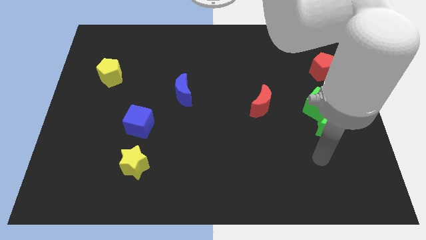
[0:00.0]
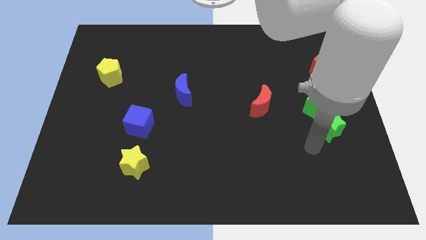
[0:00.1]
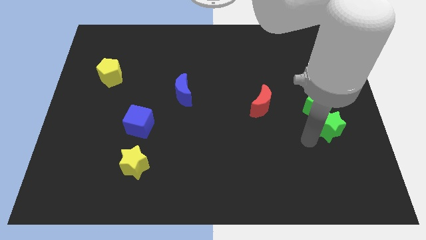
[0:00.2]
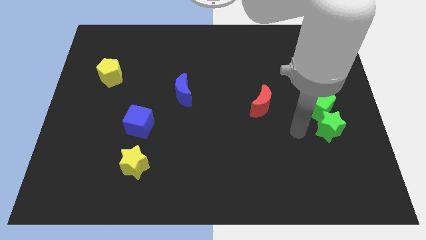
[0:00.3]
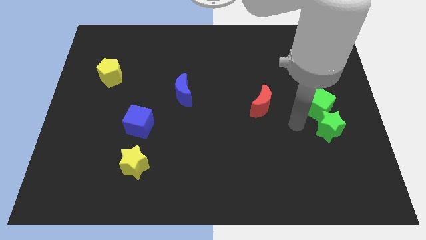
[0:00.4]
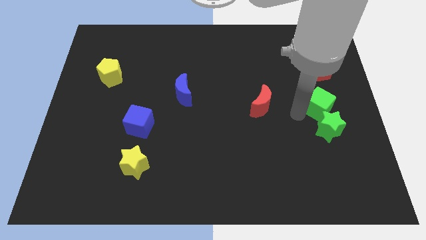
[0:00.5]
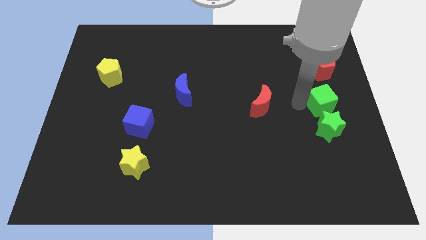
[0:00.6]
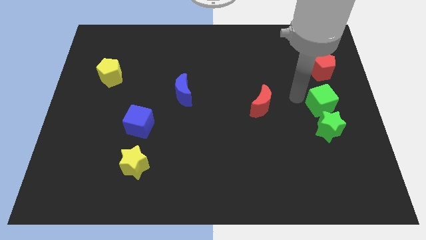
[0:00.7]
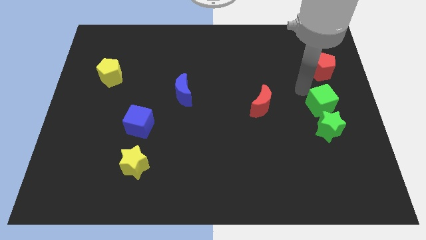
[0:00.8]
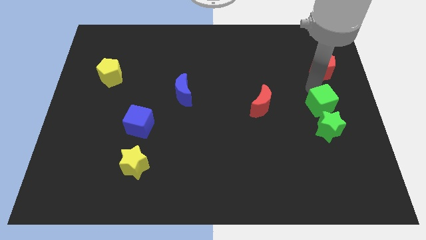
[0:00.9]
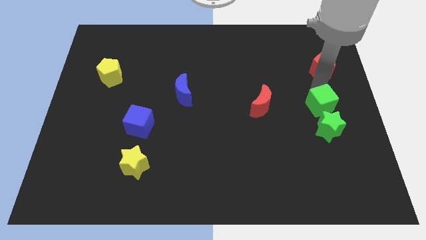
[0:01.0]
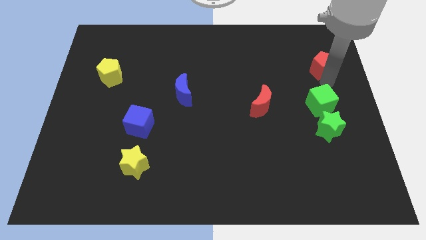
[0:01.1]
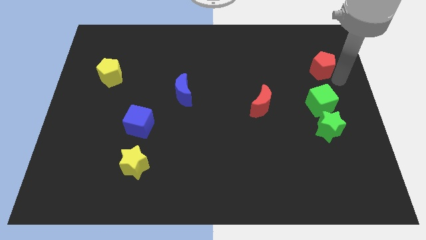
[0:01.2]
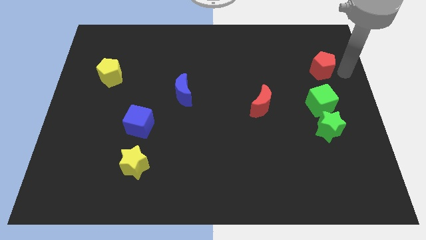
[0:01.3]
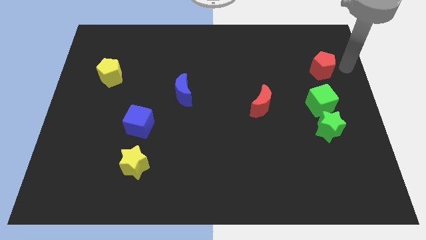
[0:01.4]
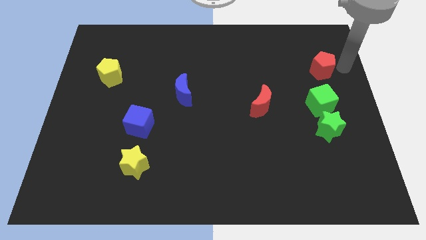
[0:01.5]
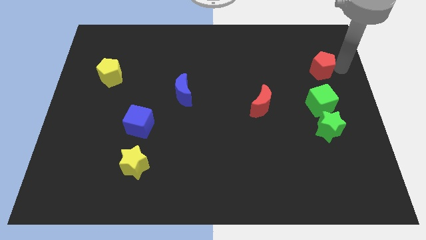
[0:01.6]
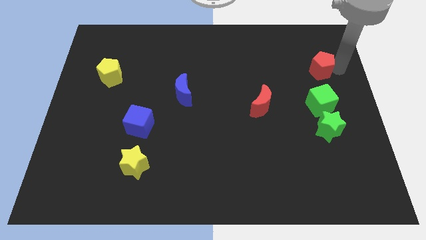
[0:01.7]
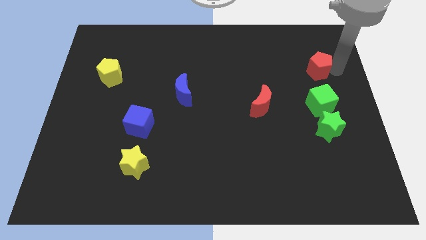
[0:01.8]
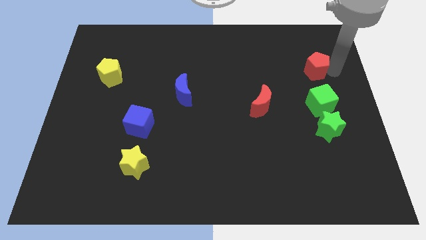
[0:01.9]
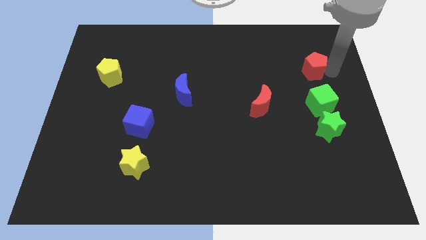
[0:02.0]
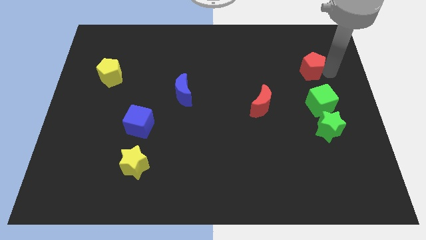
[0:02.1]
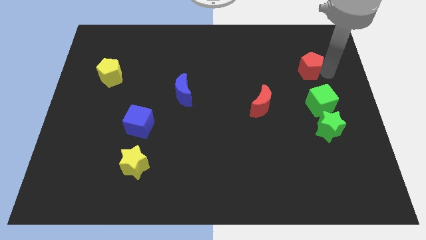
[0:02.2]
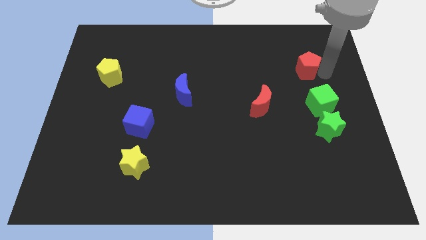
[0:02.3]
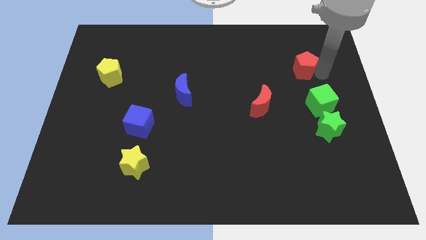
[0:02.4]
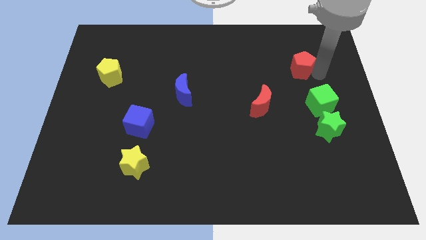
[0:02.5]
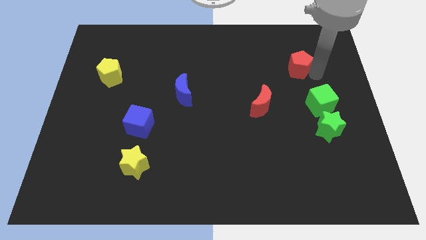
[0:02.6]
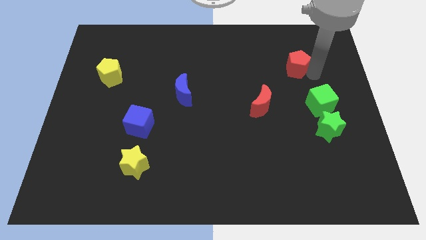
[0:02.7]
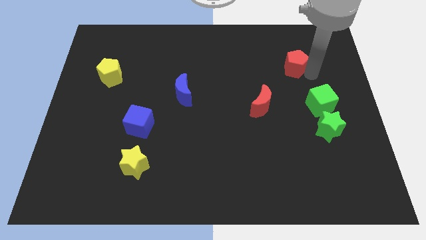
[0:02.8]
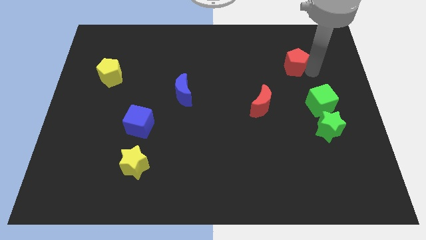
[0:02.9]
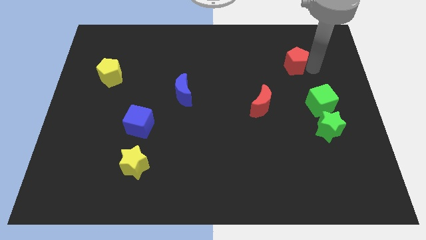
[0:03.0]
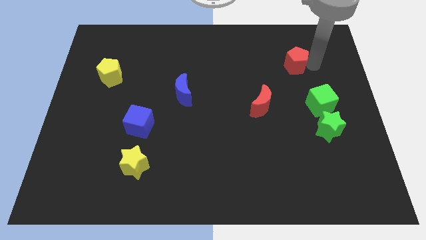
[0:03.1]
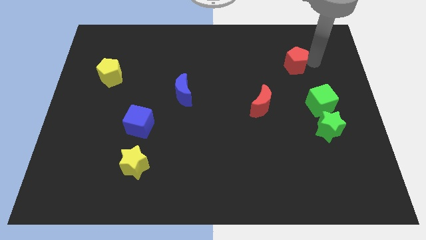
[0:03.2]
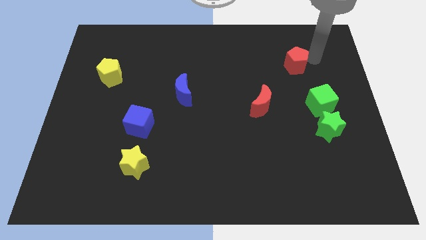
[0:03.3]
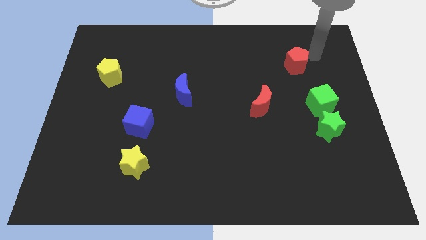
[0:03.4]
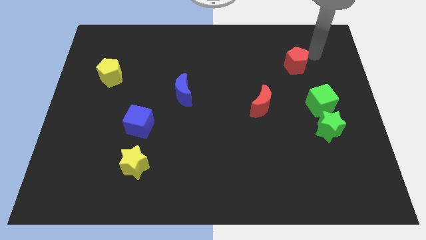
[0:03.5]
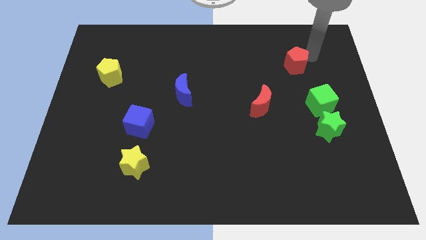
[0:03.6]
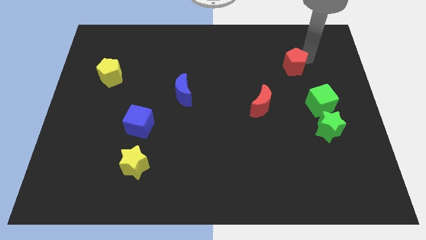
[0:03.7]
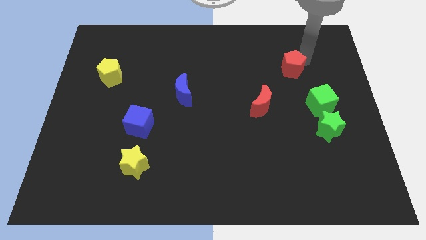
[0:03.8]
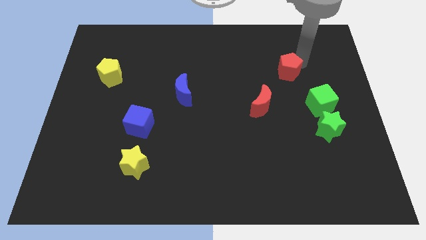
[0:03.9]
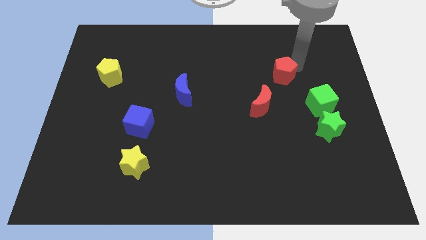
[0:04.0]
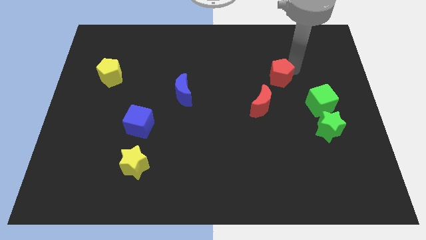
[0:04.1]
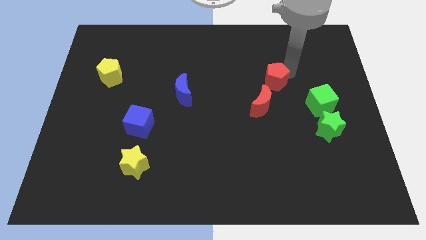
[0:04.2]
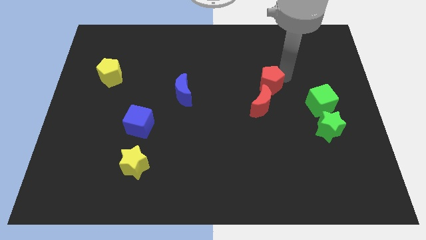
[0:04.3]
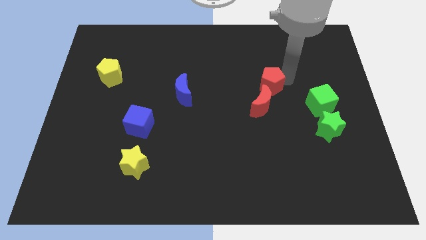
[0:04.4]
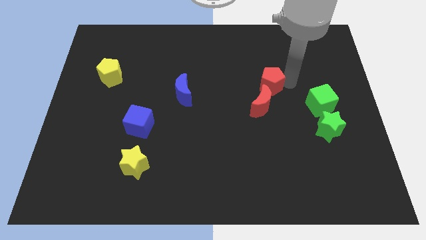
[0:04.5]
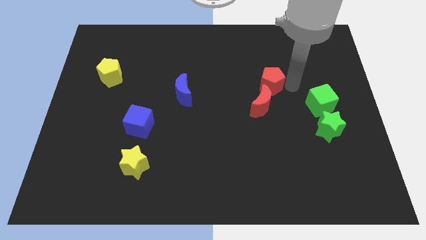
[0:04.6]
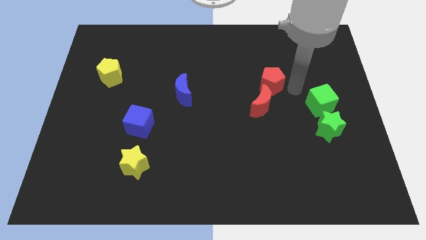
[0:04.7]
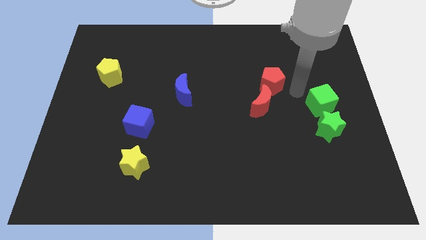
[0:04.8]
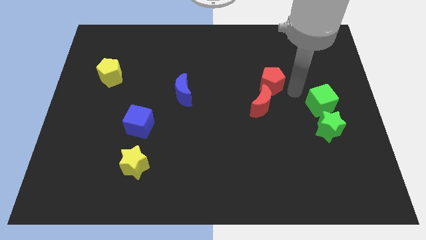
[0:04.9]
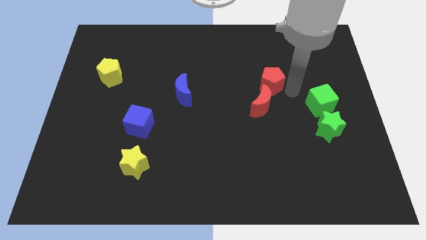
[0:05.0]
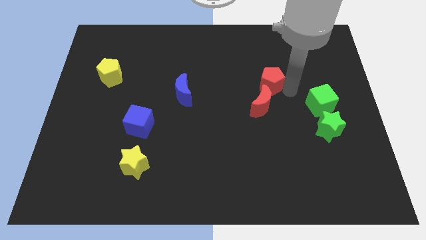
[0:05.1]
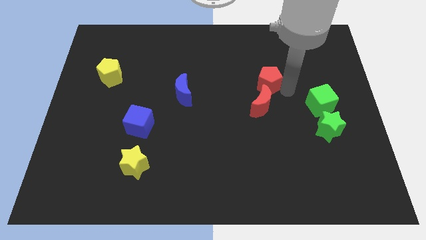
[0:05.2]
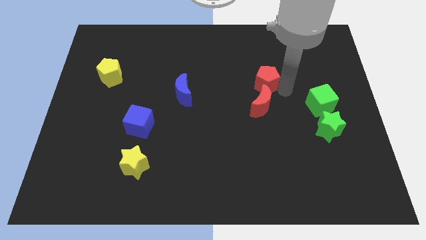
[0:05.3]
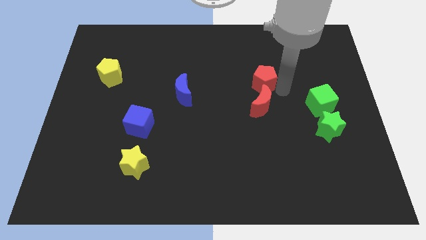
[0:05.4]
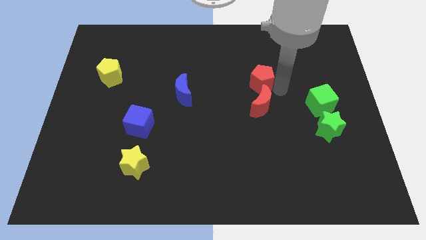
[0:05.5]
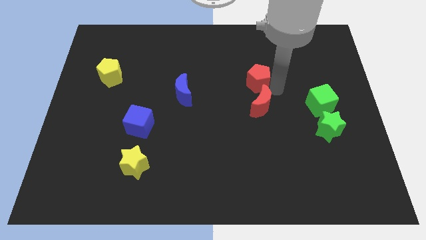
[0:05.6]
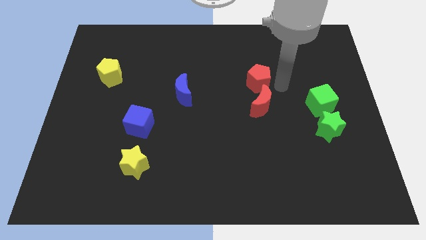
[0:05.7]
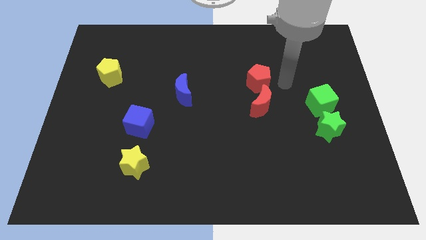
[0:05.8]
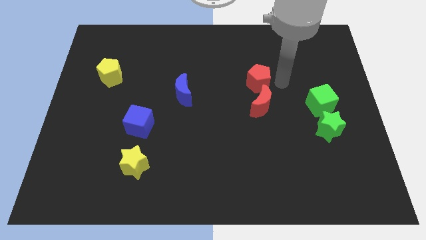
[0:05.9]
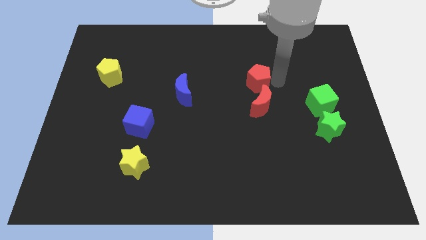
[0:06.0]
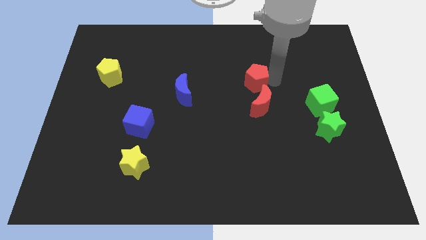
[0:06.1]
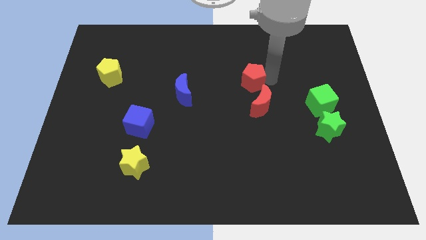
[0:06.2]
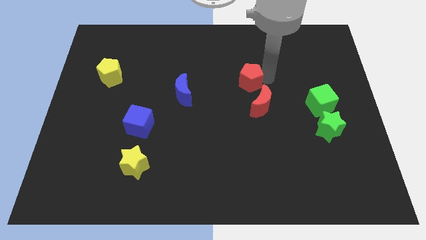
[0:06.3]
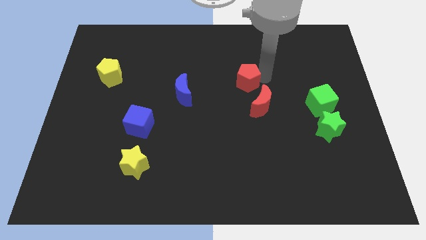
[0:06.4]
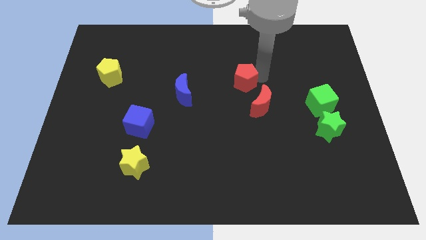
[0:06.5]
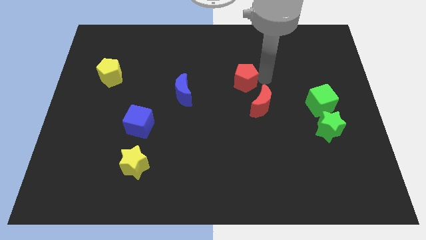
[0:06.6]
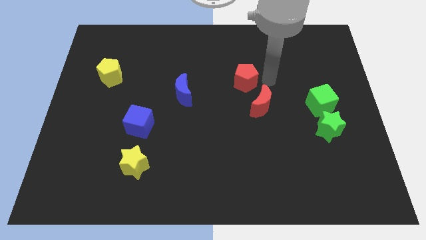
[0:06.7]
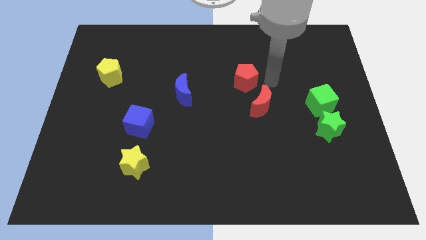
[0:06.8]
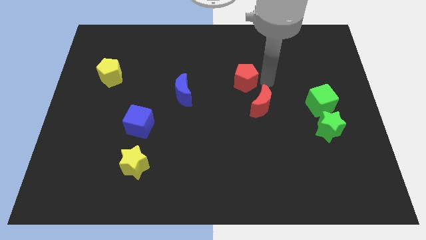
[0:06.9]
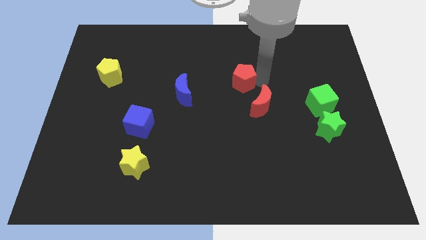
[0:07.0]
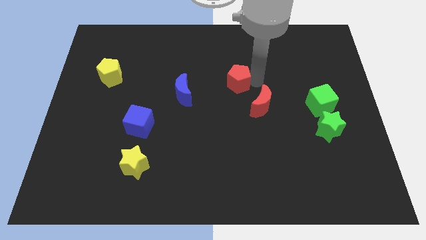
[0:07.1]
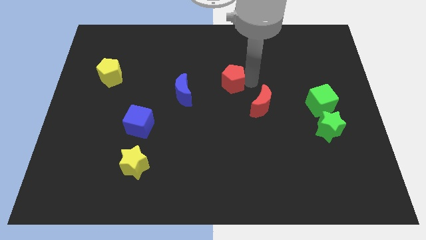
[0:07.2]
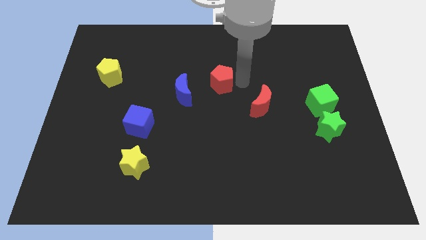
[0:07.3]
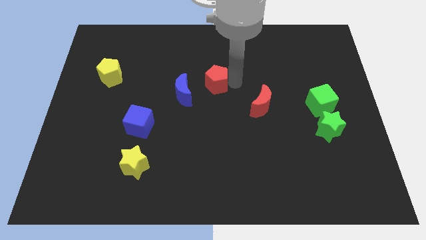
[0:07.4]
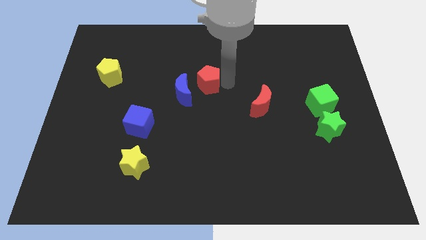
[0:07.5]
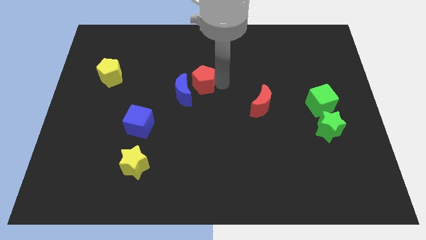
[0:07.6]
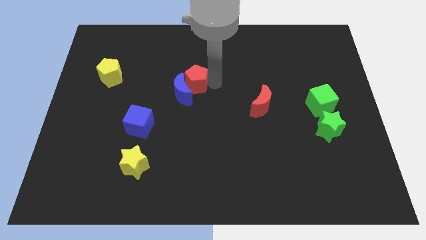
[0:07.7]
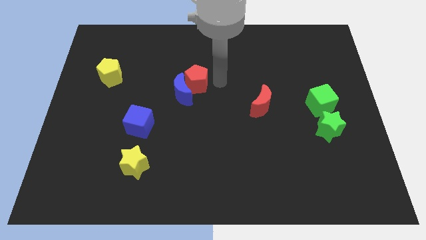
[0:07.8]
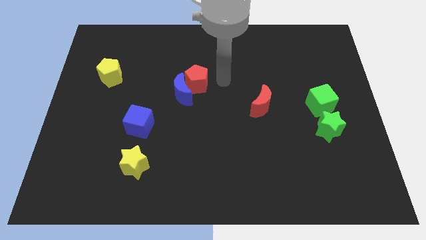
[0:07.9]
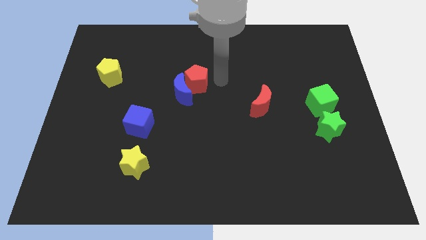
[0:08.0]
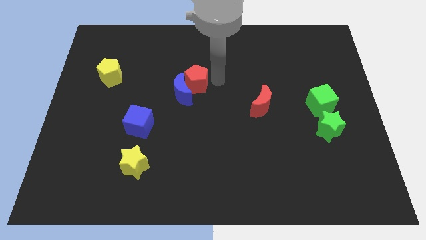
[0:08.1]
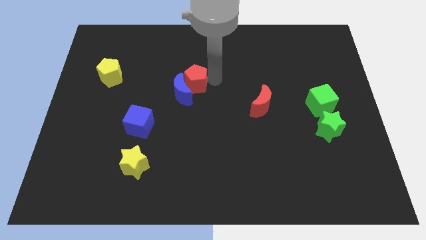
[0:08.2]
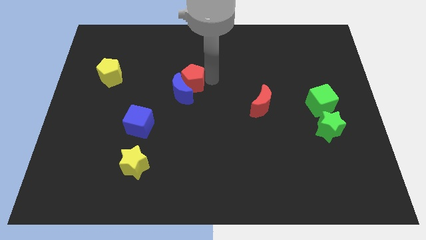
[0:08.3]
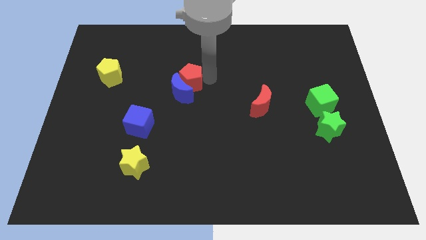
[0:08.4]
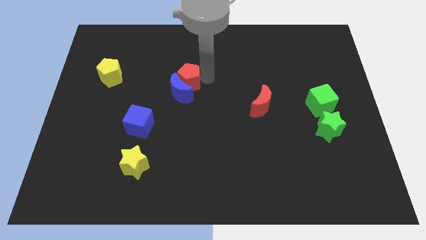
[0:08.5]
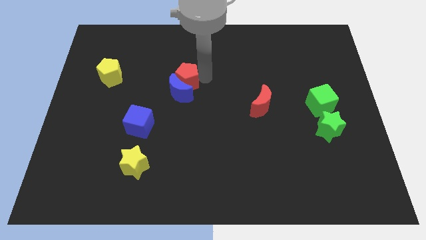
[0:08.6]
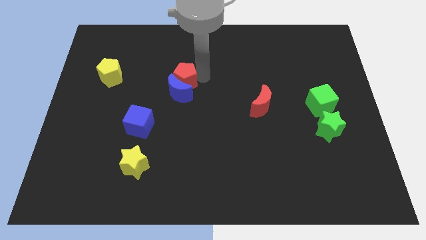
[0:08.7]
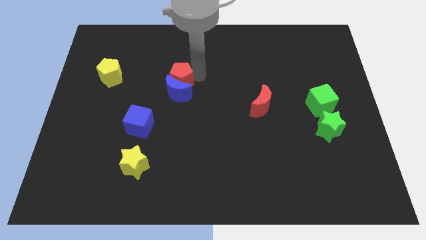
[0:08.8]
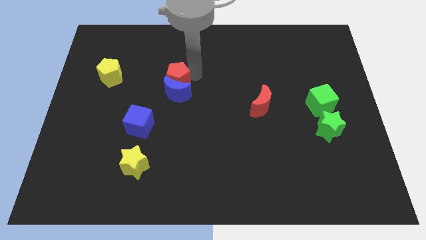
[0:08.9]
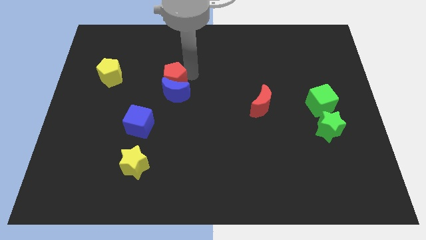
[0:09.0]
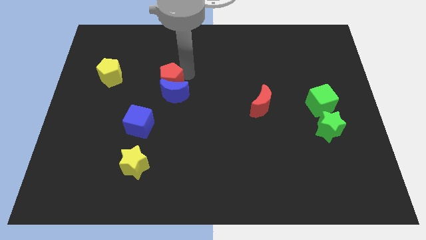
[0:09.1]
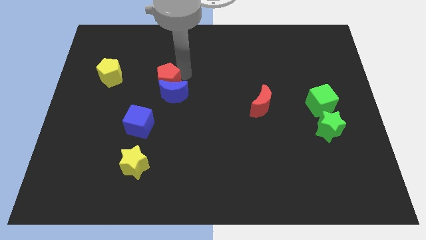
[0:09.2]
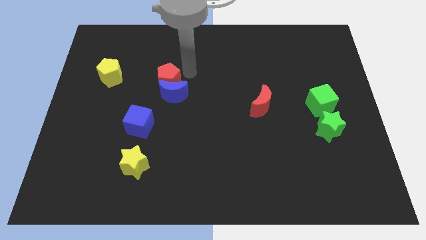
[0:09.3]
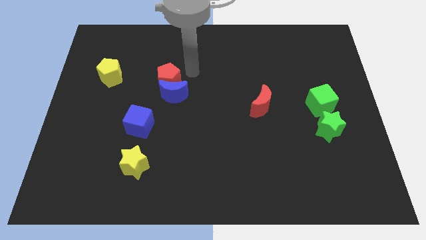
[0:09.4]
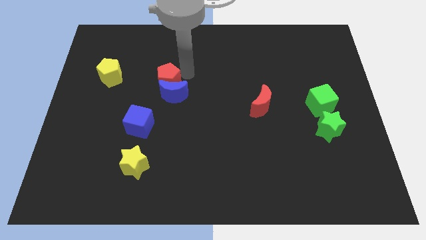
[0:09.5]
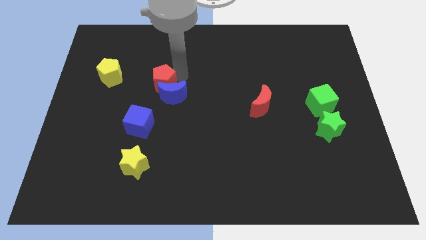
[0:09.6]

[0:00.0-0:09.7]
move the red pentagon to the top side of the blue cube
